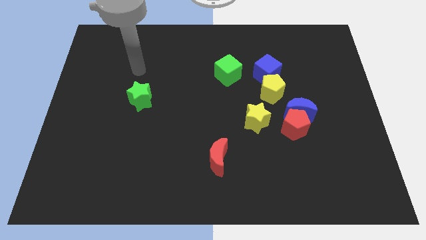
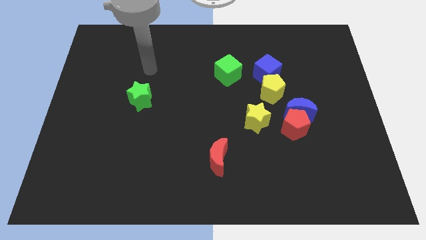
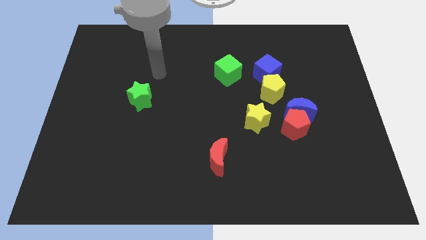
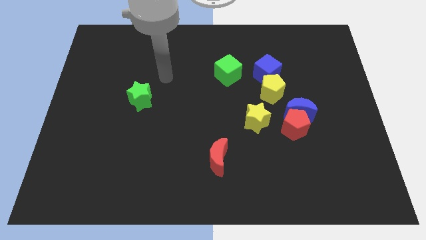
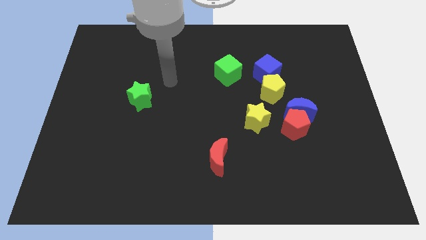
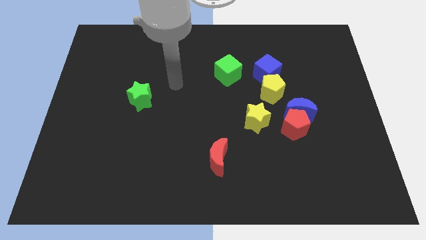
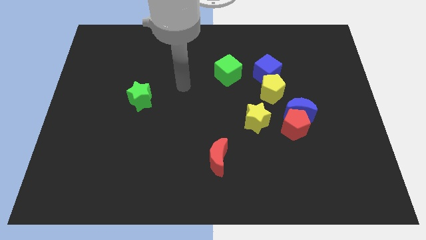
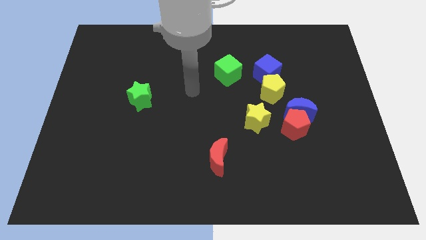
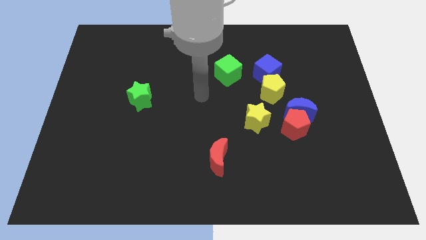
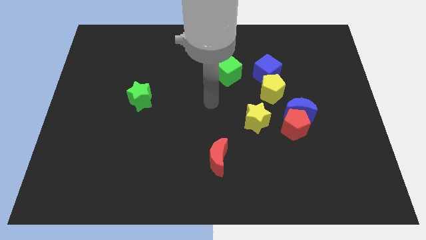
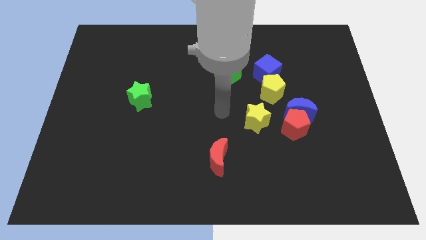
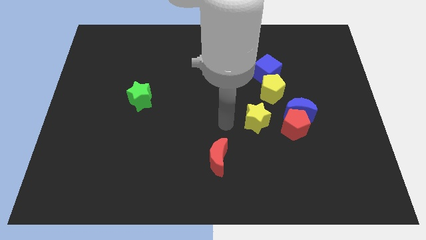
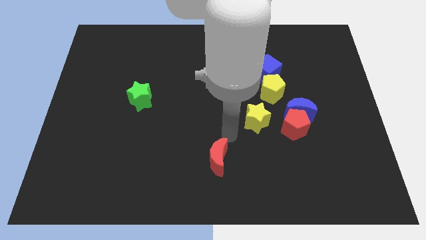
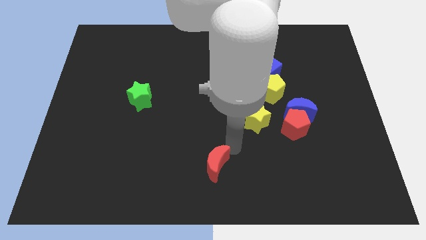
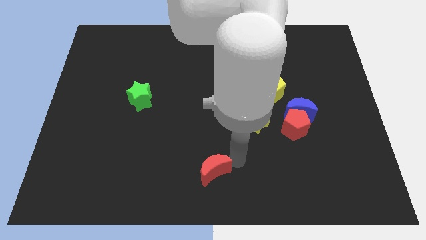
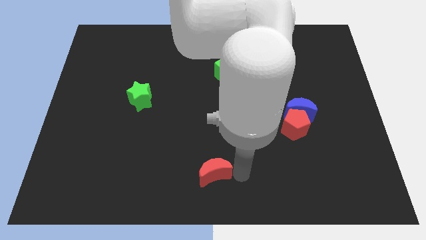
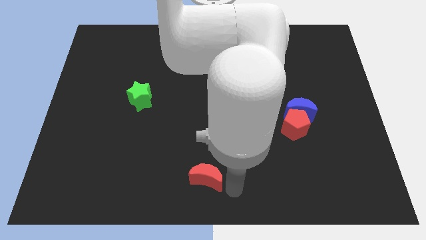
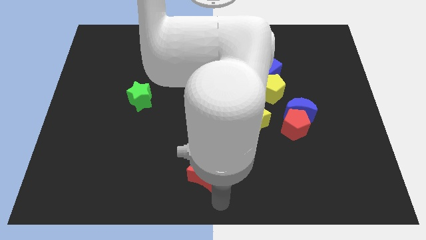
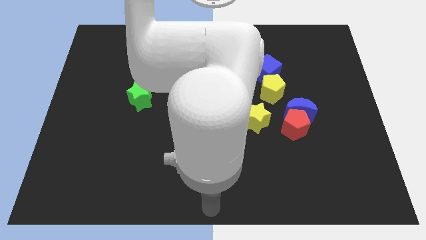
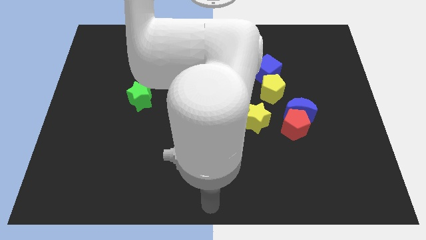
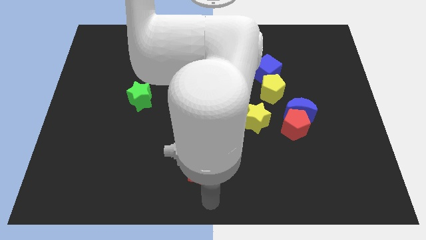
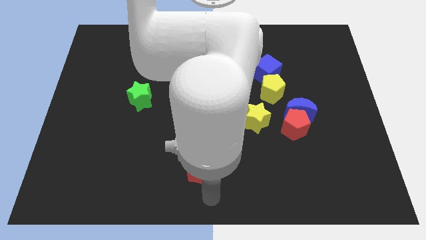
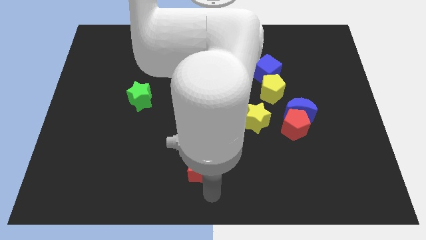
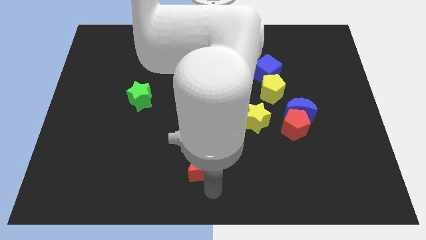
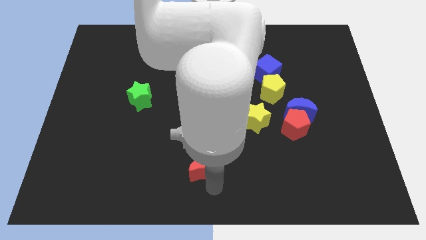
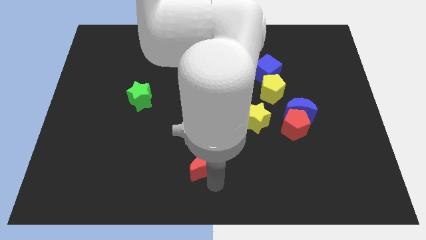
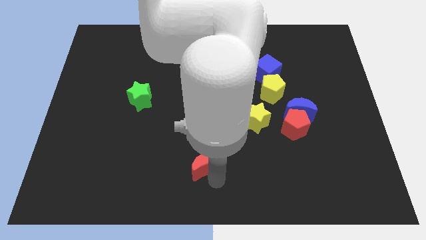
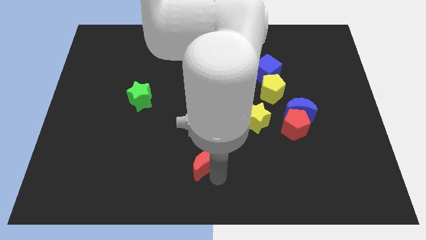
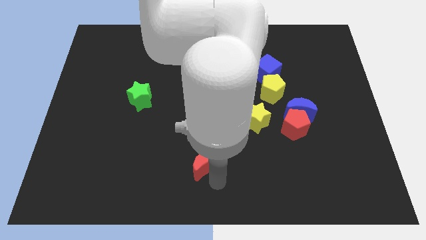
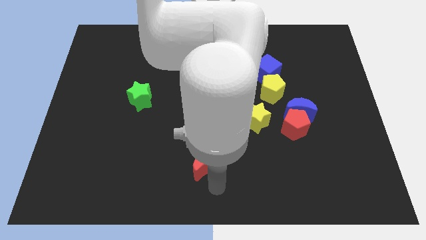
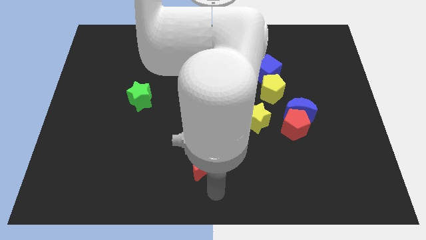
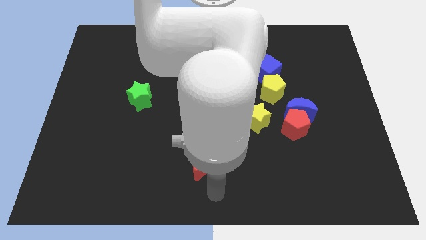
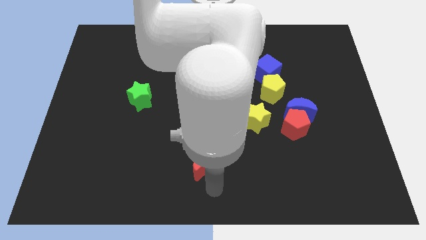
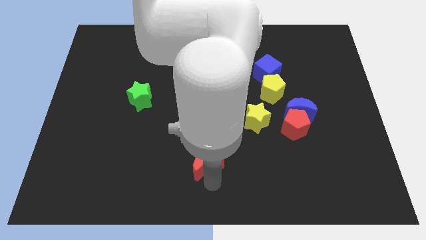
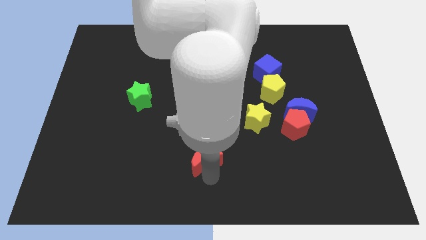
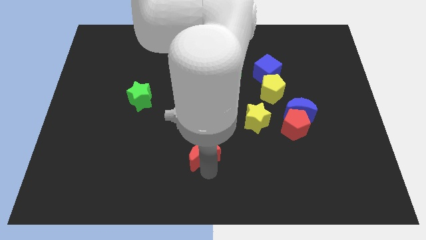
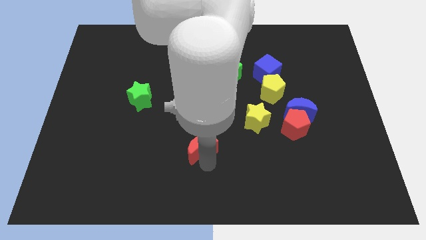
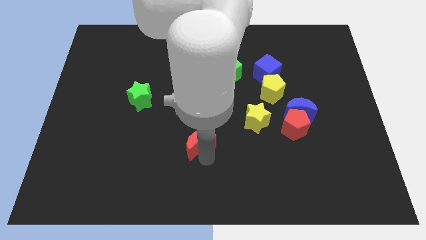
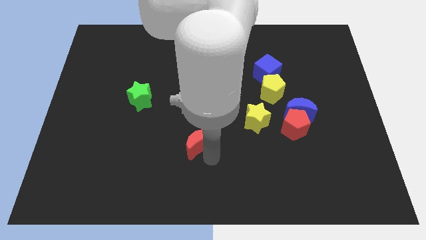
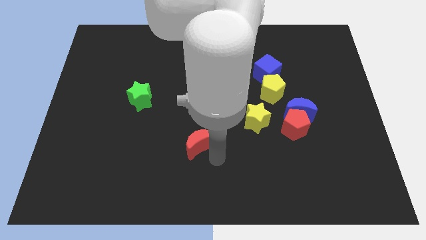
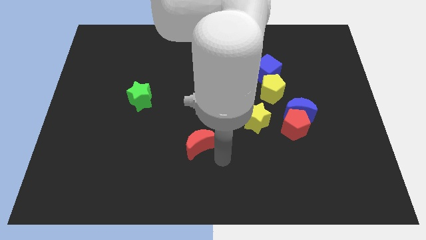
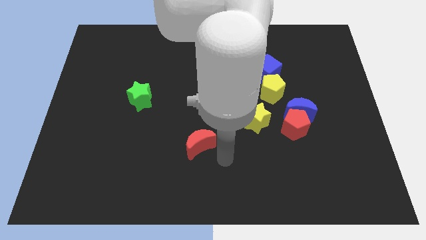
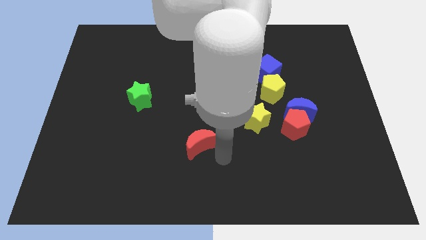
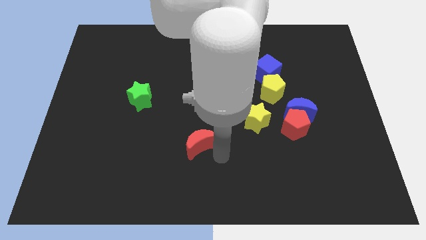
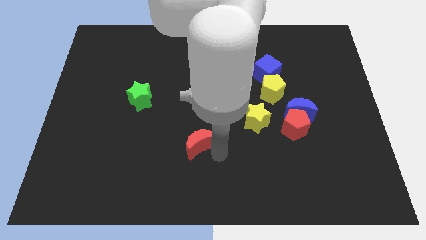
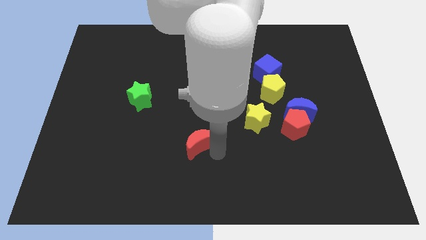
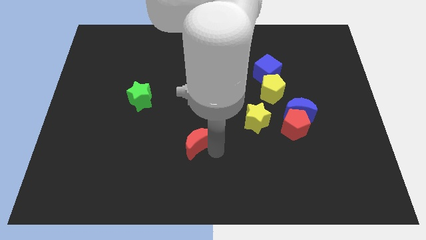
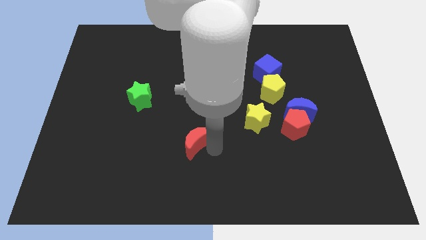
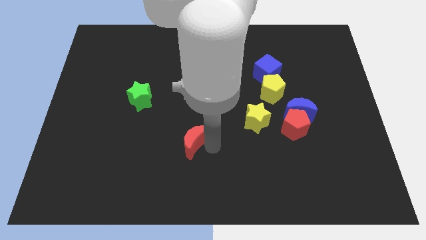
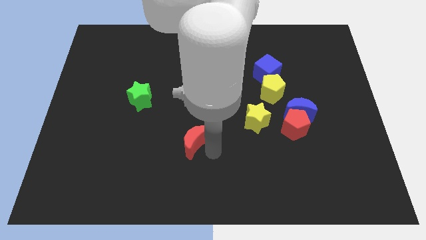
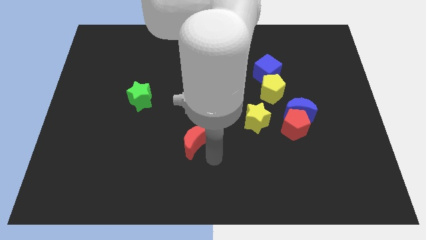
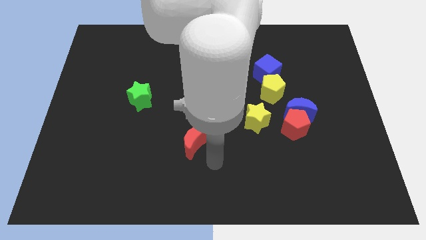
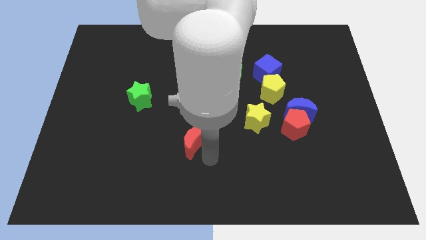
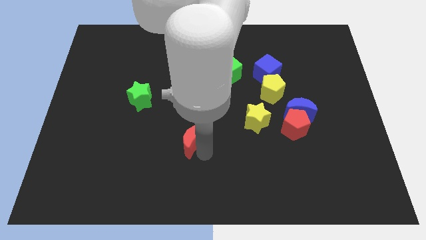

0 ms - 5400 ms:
push the red moon diagonally upwards and to the left somewhat

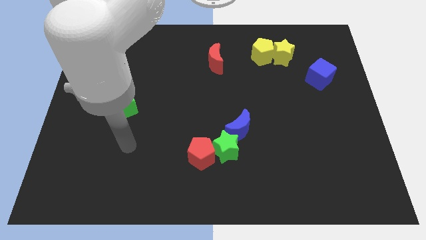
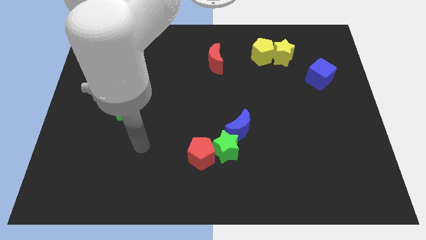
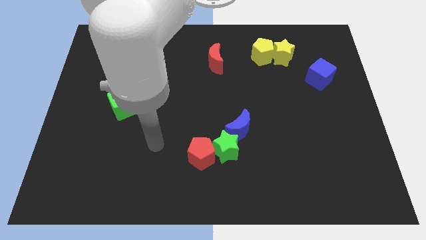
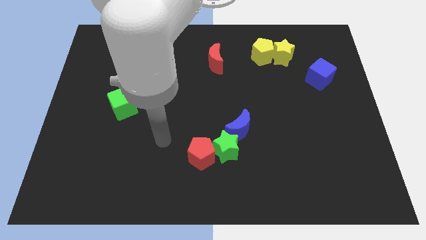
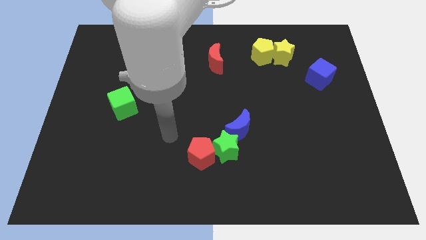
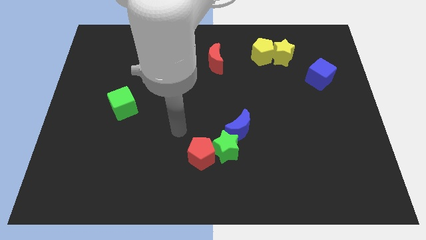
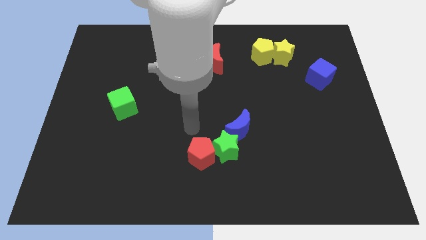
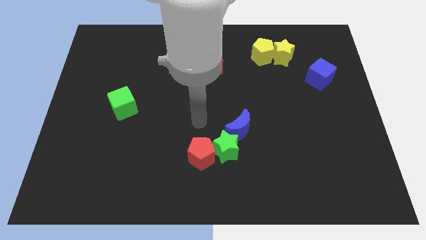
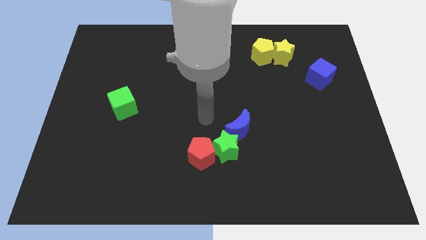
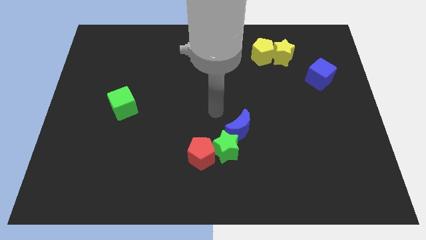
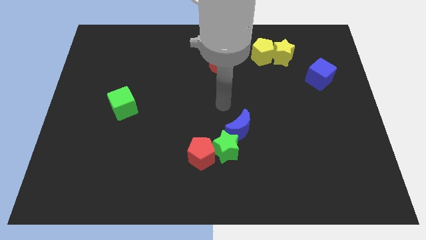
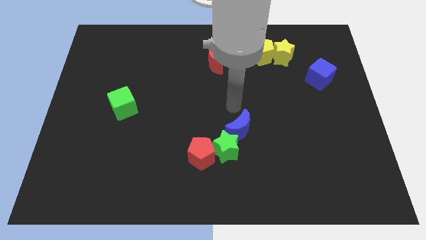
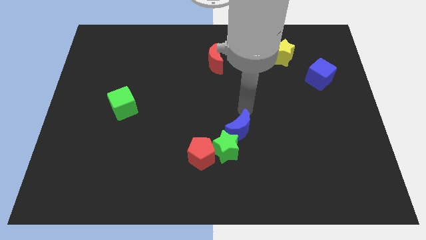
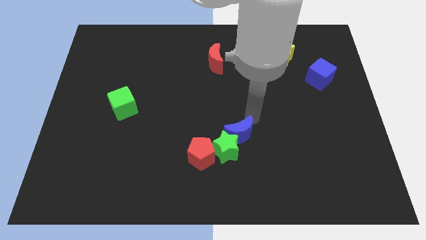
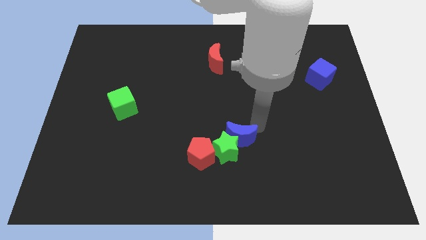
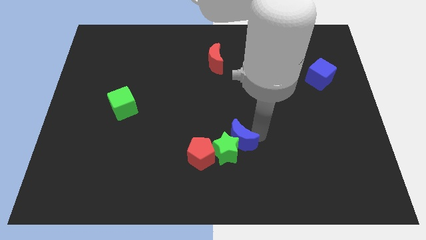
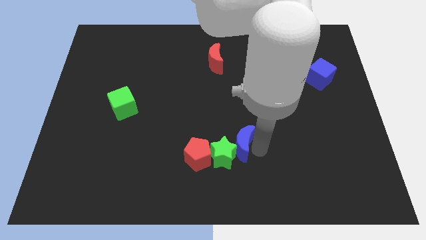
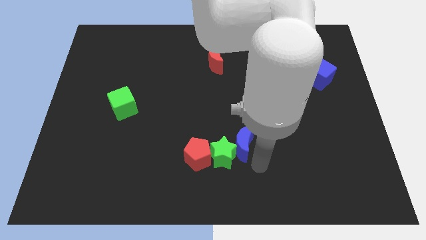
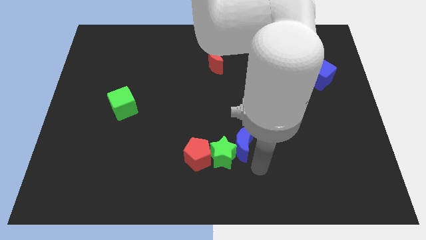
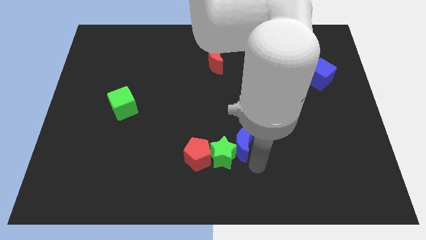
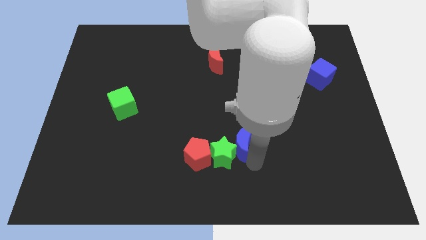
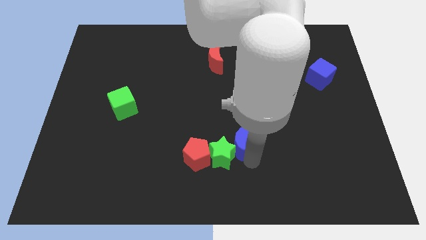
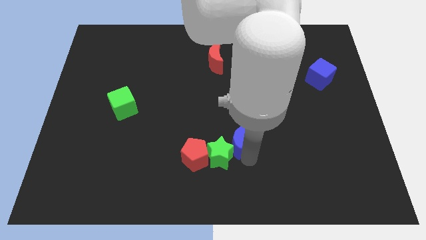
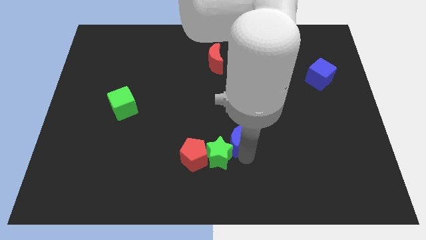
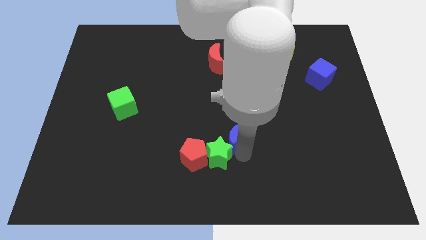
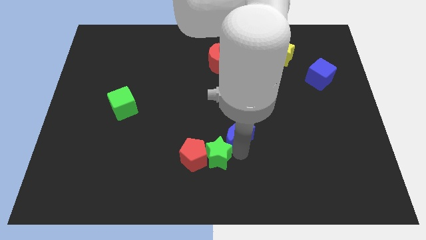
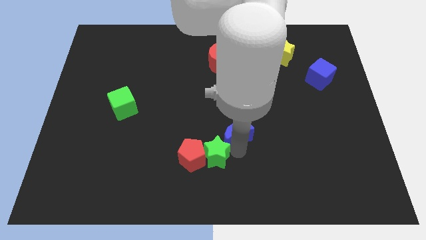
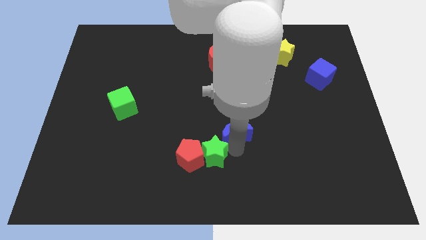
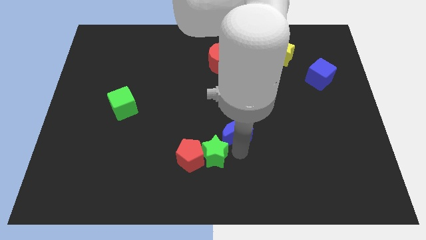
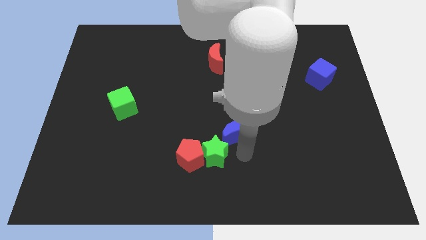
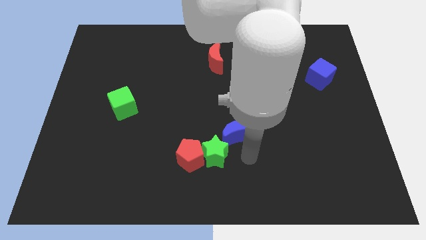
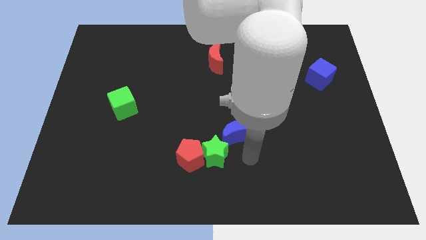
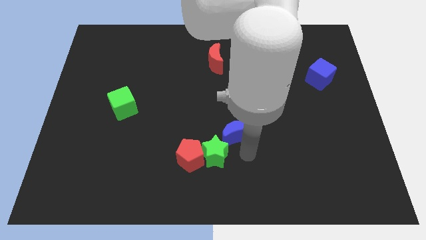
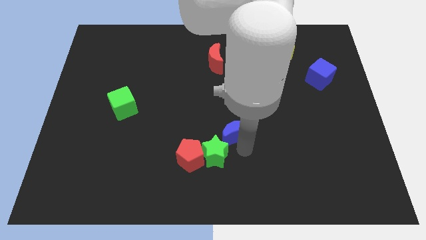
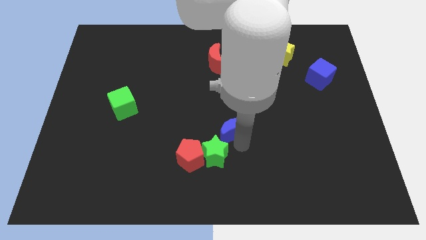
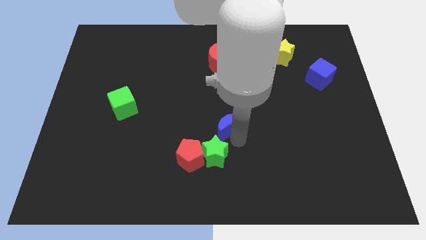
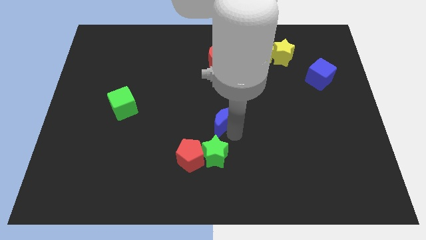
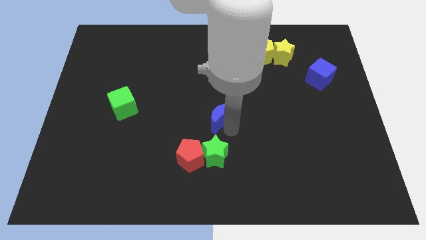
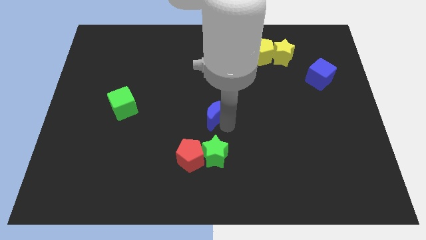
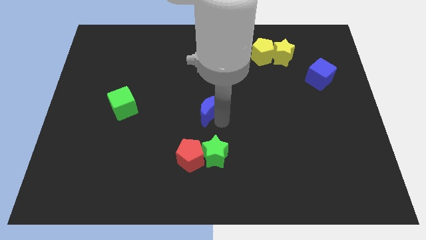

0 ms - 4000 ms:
slightly push the blue moon diagonally upwards and left
